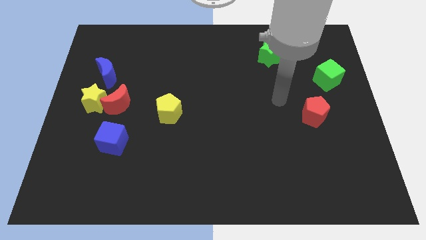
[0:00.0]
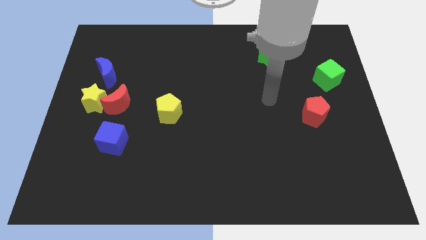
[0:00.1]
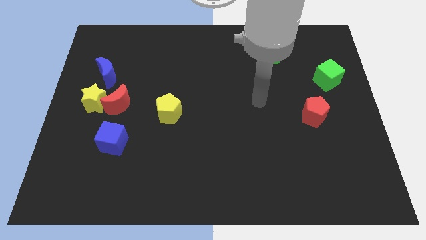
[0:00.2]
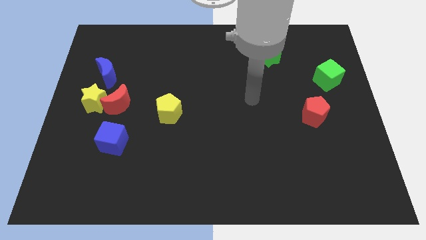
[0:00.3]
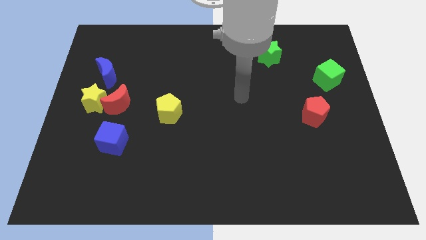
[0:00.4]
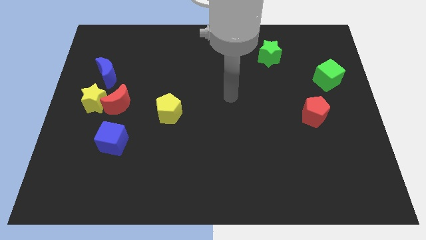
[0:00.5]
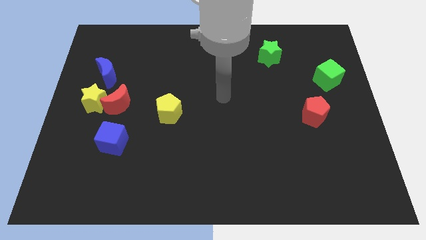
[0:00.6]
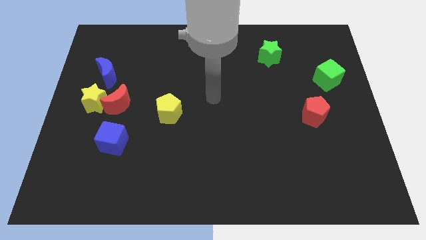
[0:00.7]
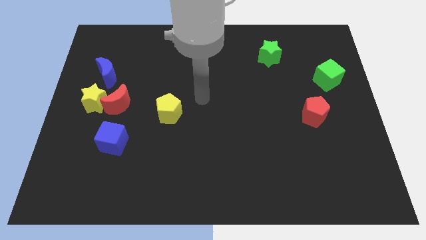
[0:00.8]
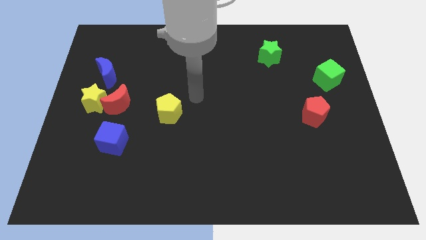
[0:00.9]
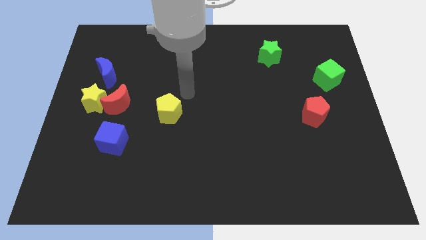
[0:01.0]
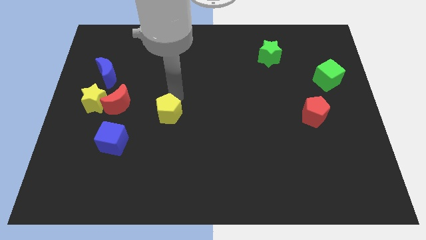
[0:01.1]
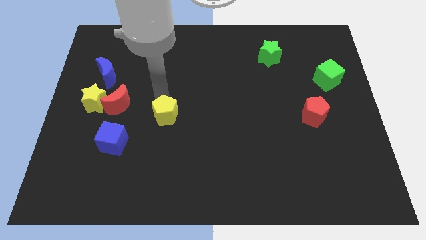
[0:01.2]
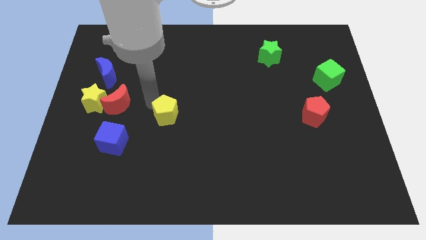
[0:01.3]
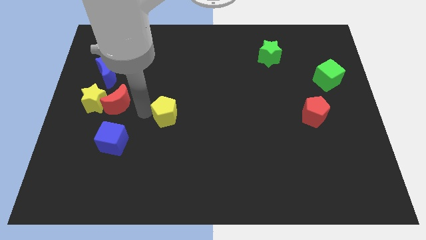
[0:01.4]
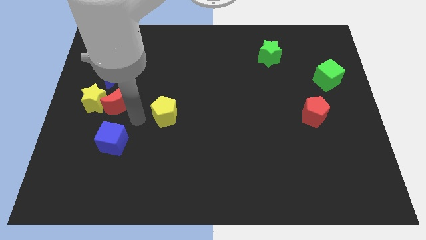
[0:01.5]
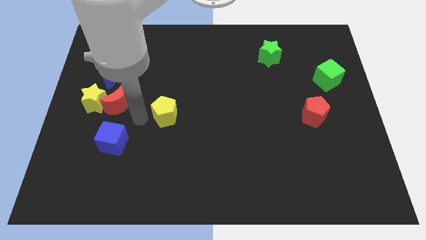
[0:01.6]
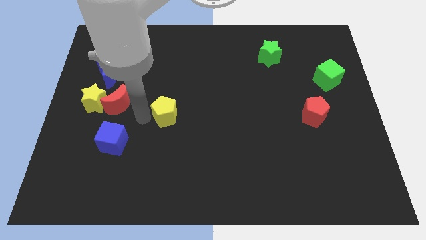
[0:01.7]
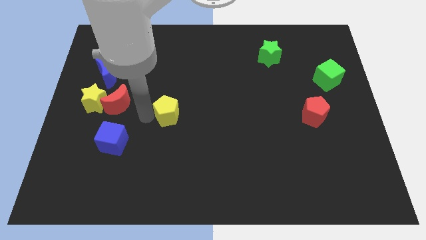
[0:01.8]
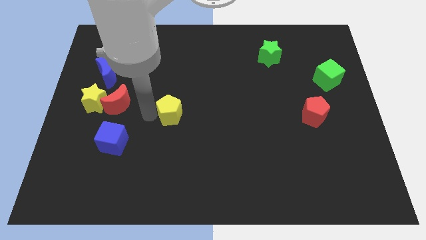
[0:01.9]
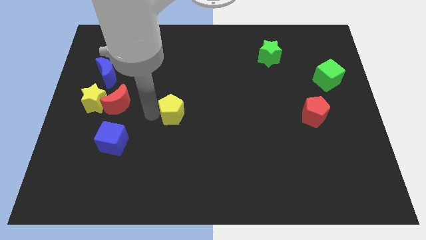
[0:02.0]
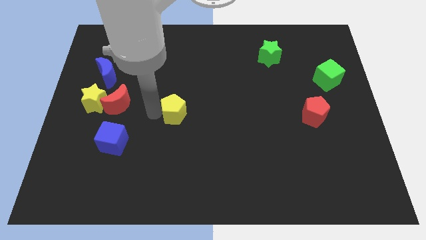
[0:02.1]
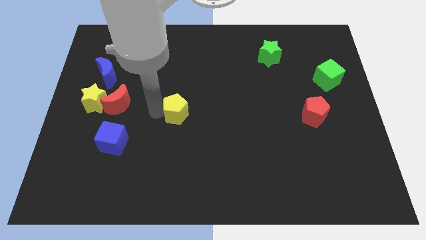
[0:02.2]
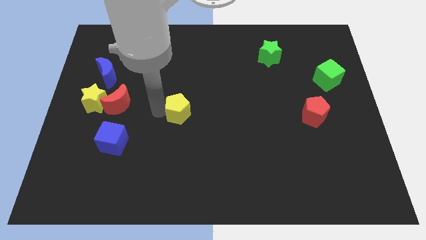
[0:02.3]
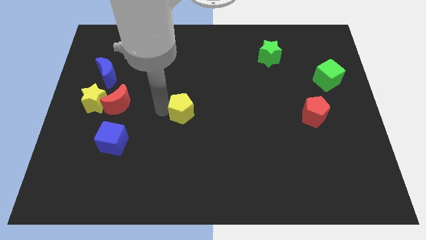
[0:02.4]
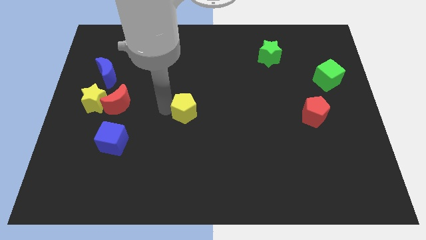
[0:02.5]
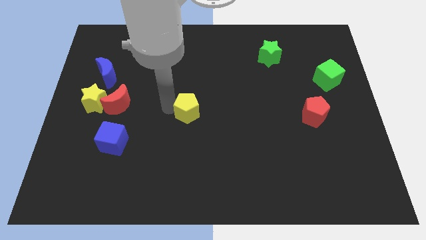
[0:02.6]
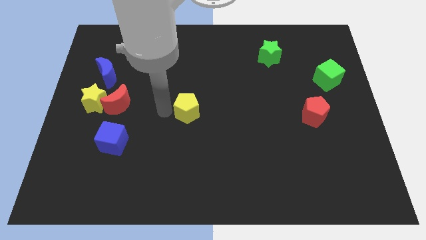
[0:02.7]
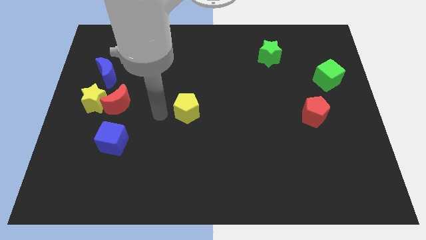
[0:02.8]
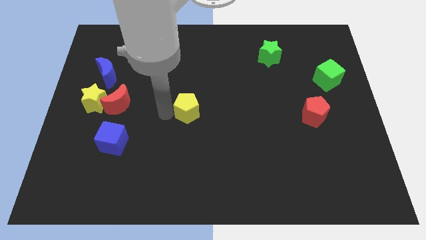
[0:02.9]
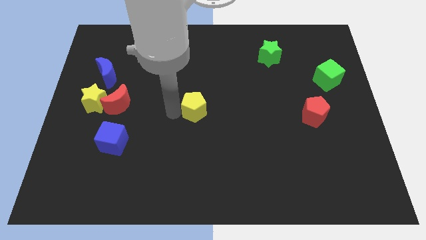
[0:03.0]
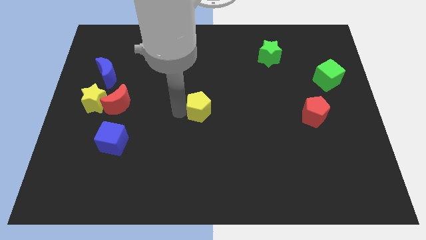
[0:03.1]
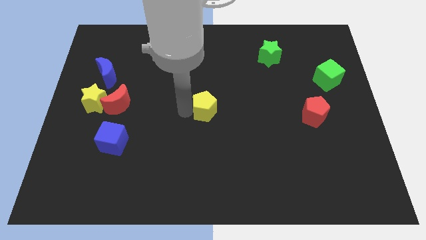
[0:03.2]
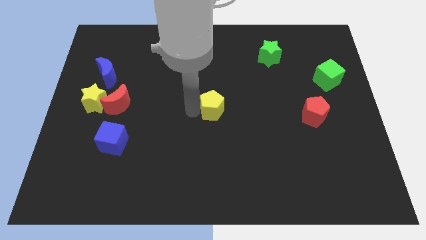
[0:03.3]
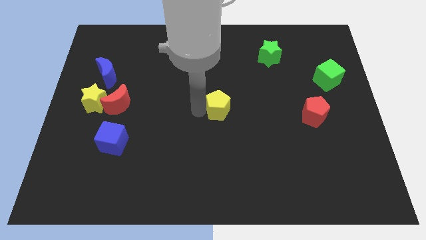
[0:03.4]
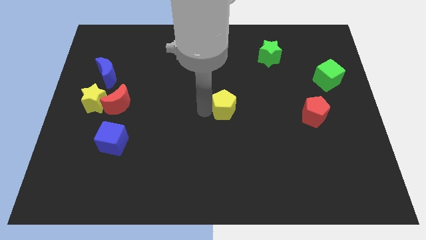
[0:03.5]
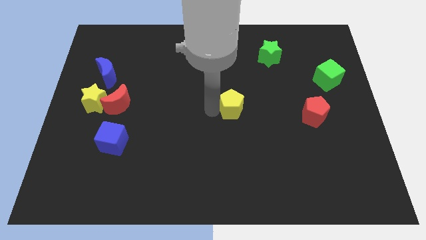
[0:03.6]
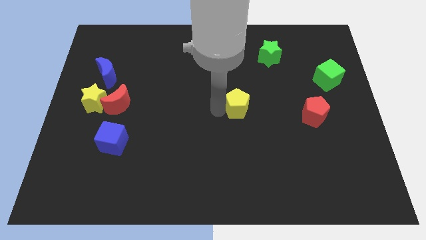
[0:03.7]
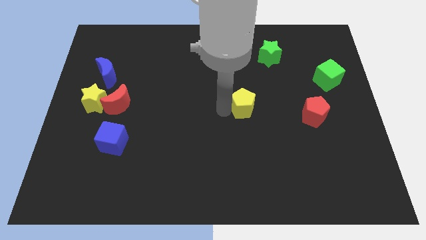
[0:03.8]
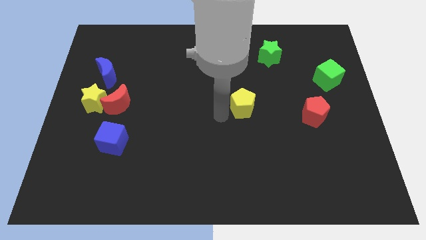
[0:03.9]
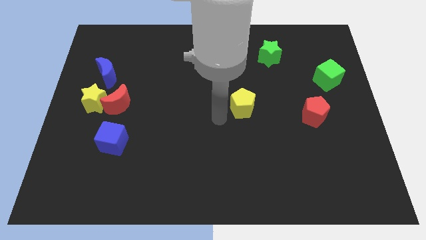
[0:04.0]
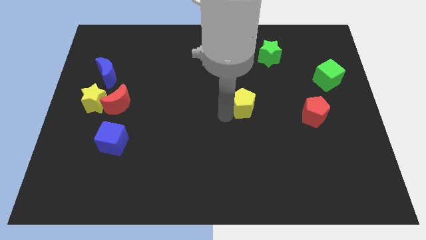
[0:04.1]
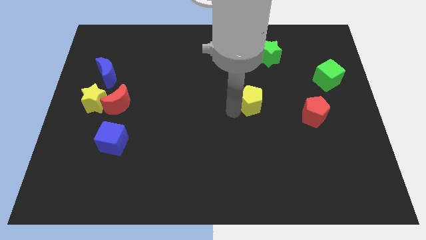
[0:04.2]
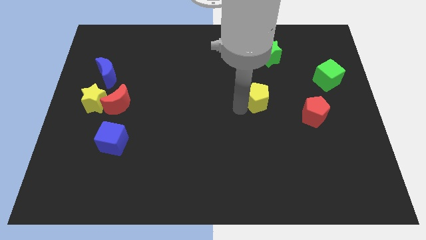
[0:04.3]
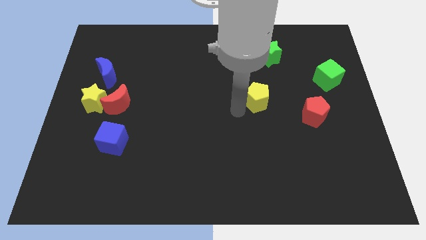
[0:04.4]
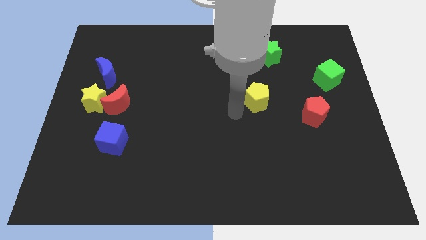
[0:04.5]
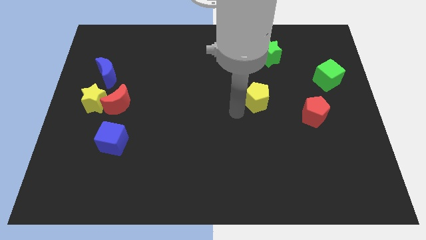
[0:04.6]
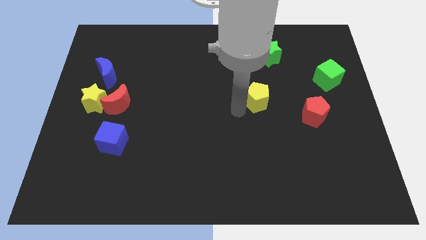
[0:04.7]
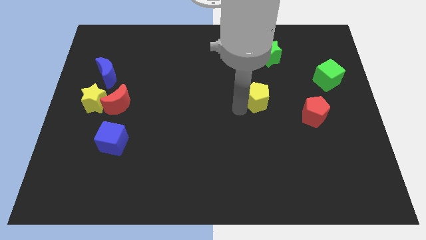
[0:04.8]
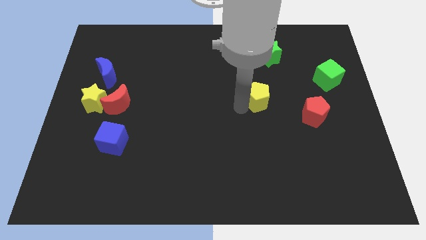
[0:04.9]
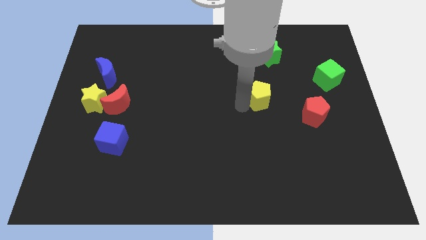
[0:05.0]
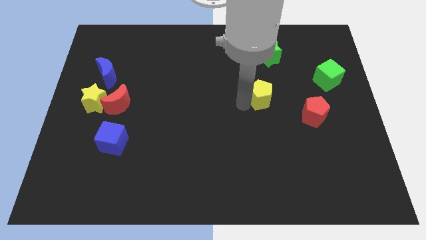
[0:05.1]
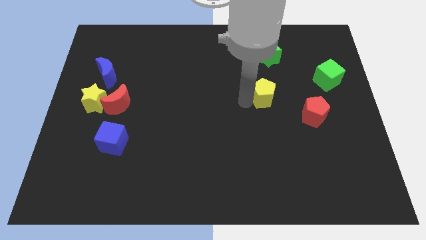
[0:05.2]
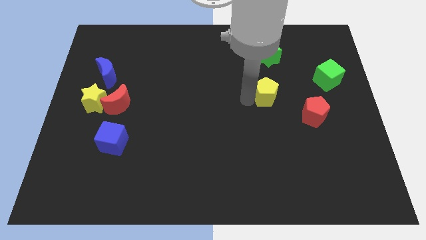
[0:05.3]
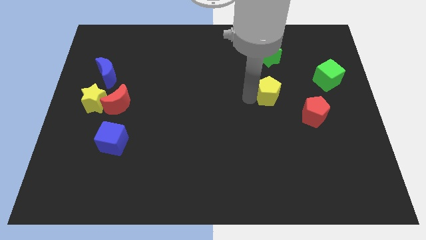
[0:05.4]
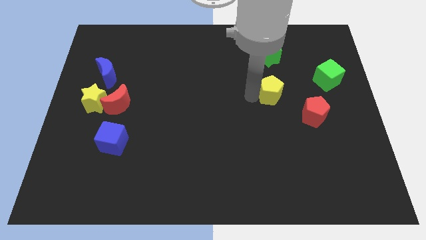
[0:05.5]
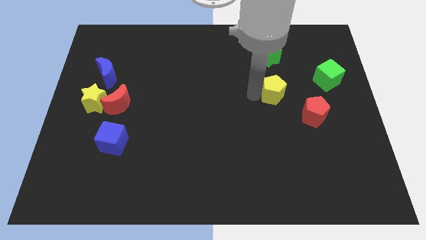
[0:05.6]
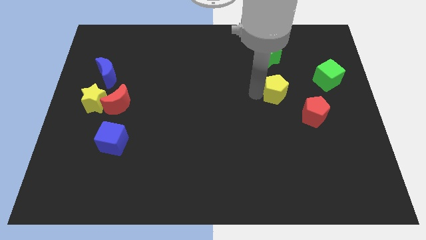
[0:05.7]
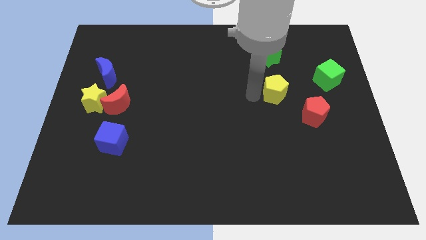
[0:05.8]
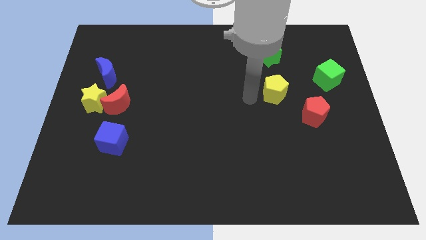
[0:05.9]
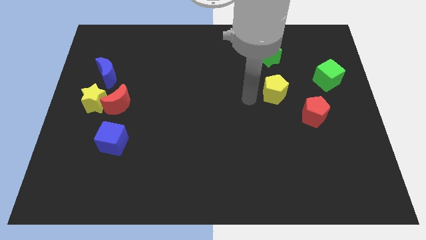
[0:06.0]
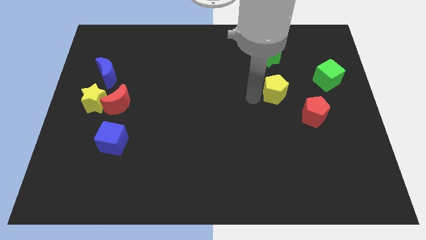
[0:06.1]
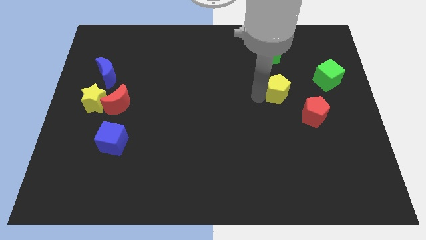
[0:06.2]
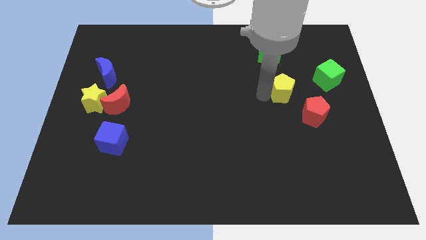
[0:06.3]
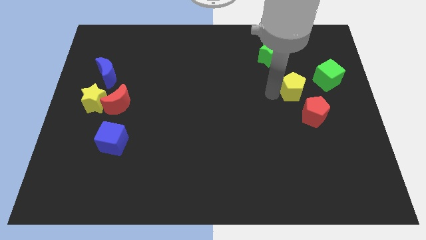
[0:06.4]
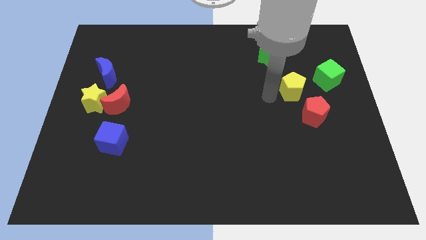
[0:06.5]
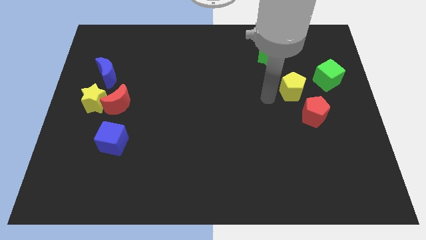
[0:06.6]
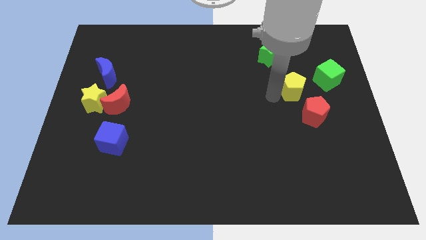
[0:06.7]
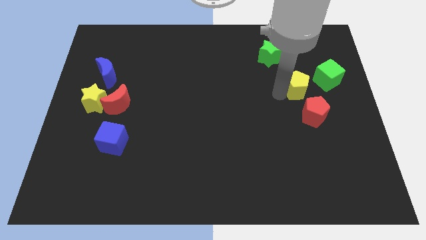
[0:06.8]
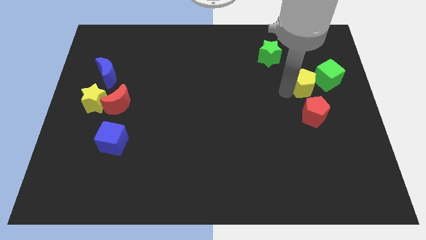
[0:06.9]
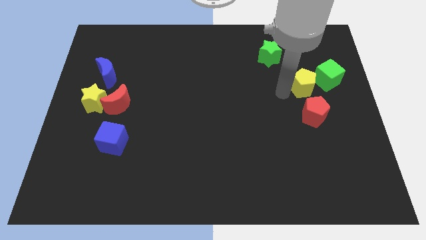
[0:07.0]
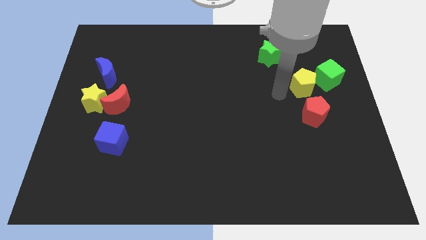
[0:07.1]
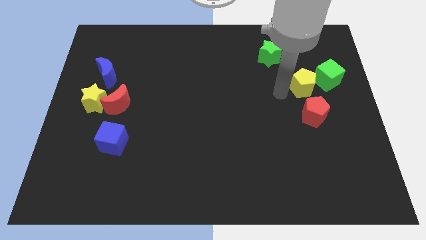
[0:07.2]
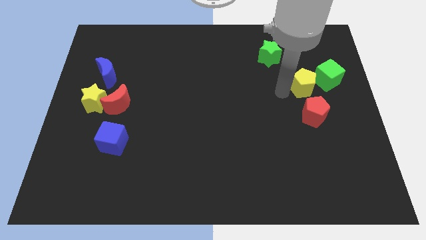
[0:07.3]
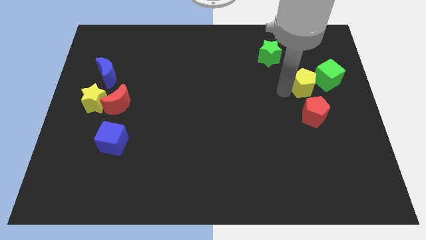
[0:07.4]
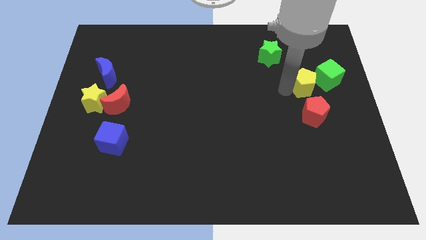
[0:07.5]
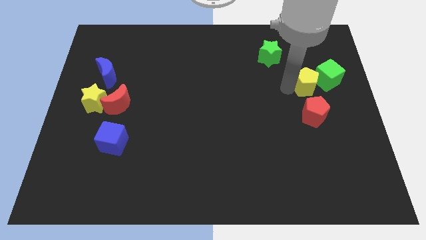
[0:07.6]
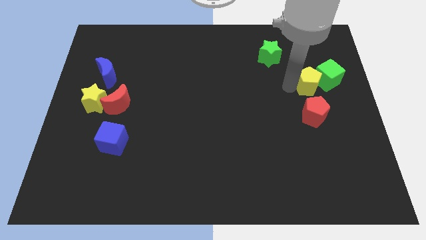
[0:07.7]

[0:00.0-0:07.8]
move the yellow pentagon to the green cube
